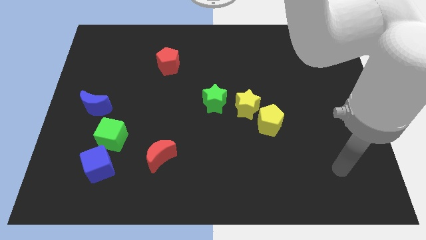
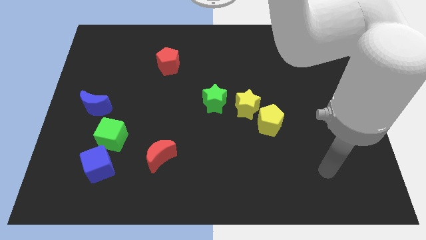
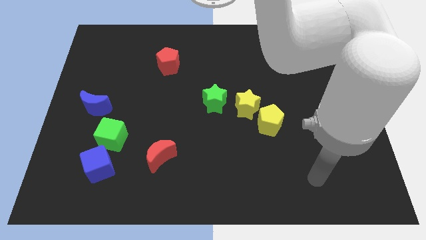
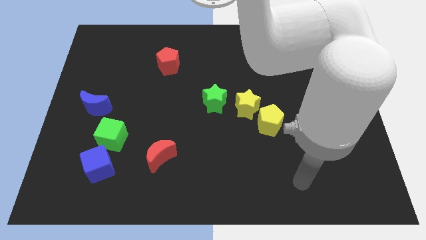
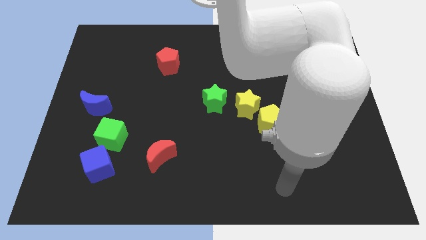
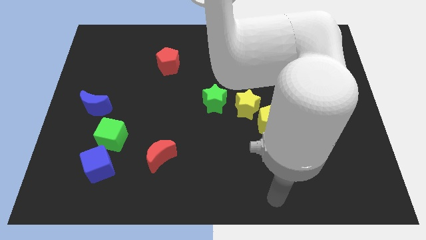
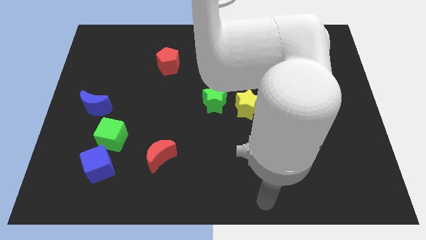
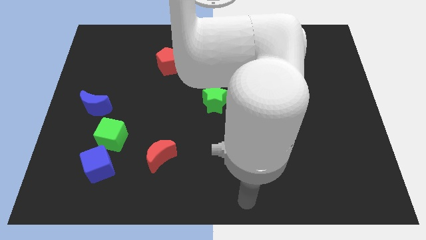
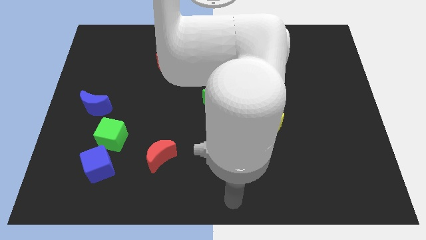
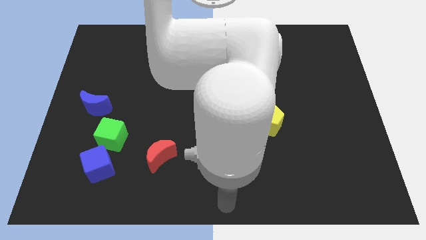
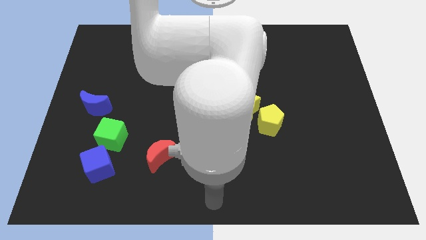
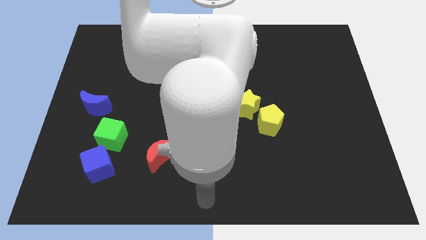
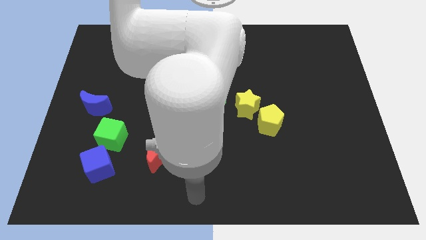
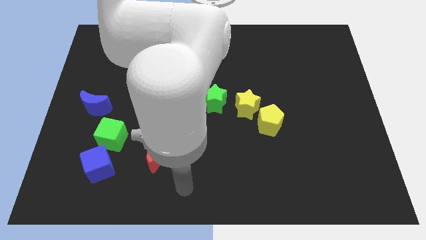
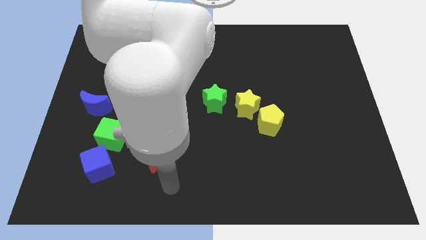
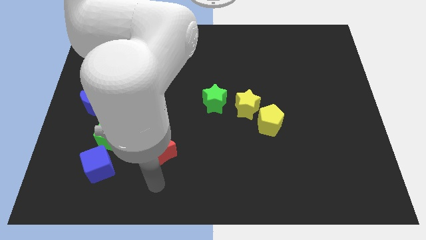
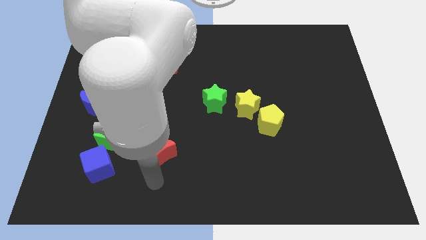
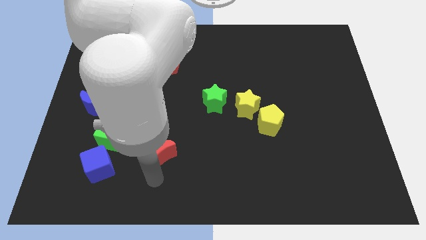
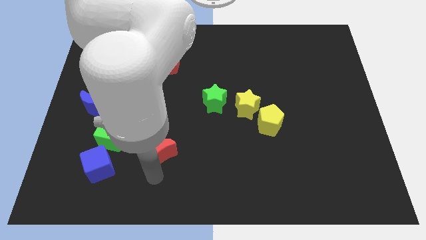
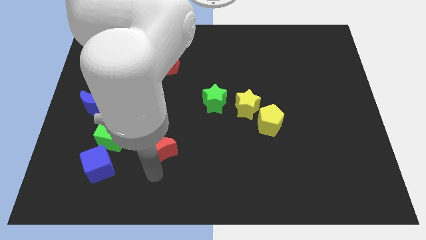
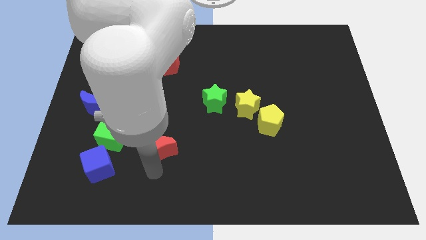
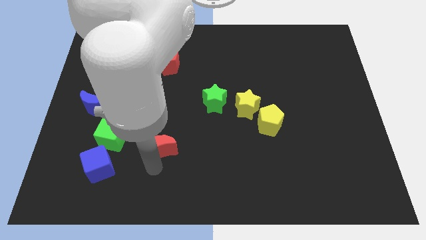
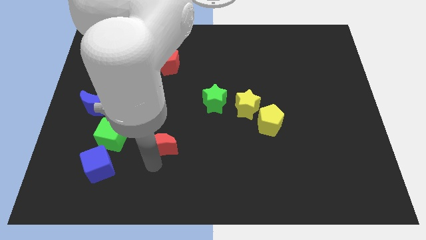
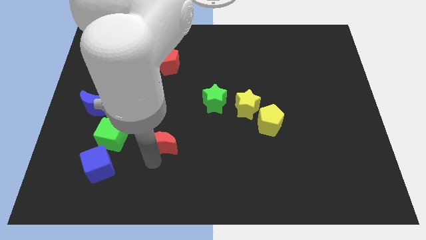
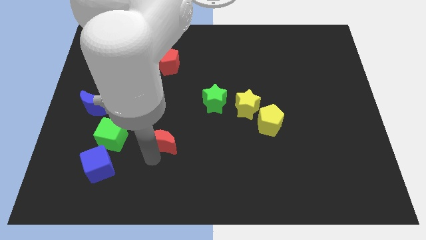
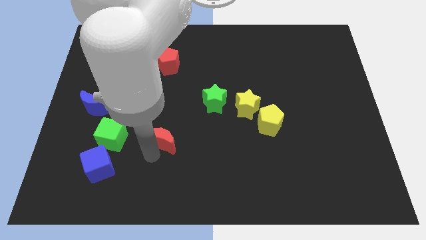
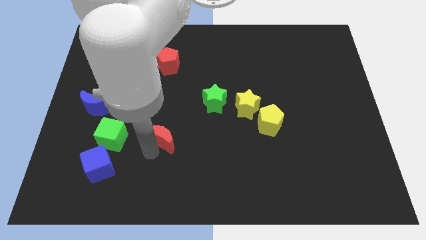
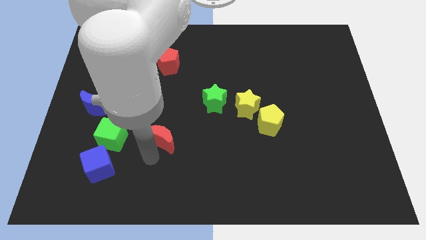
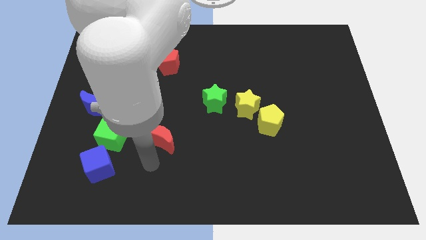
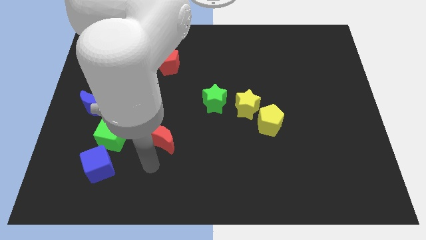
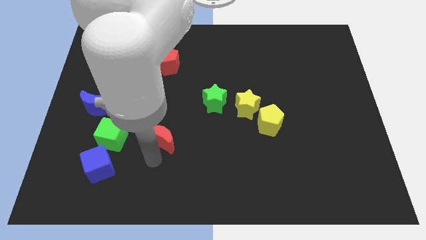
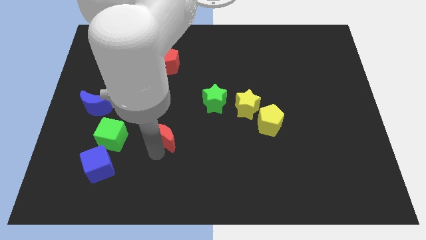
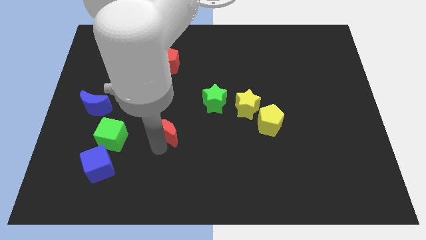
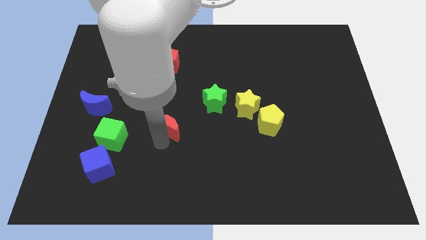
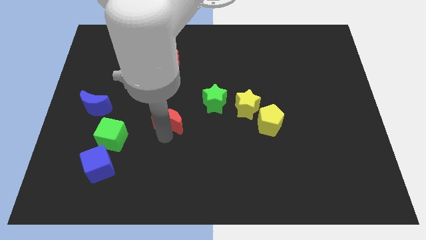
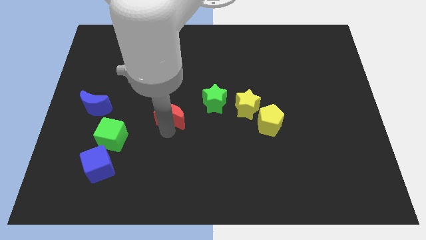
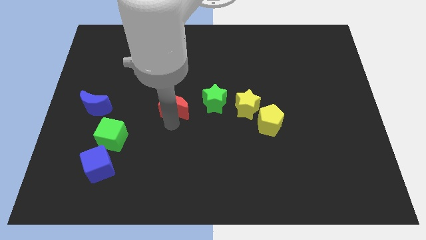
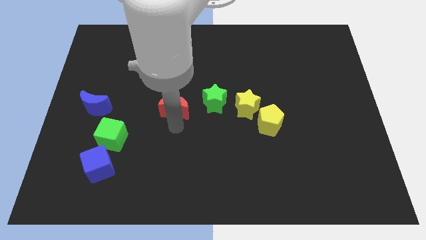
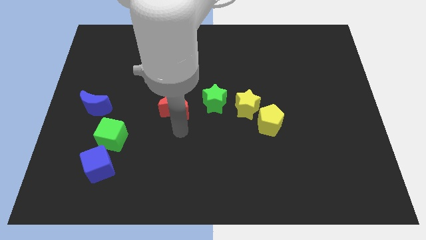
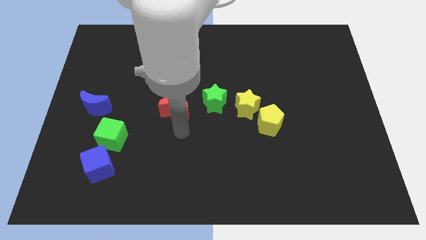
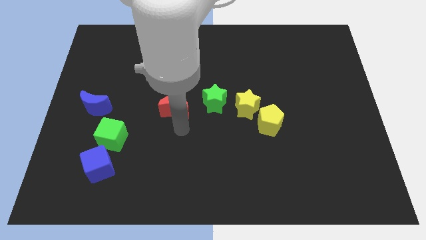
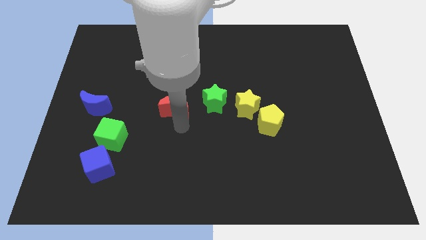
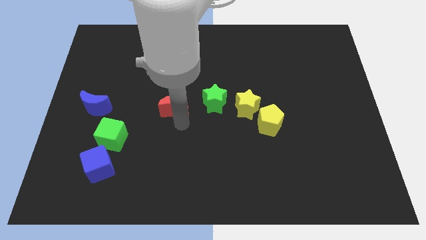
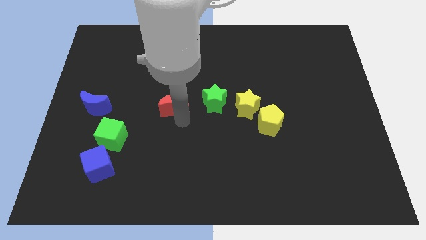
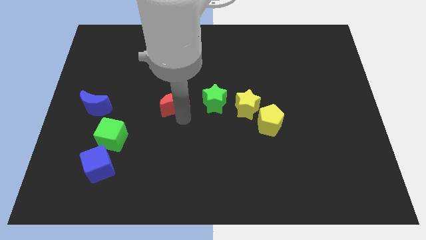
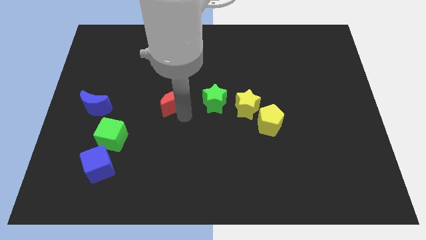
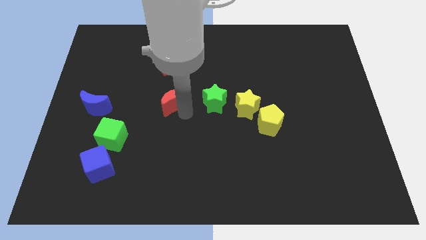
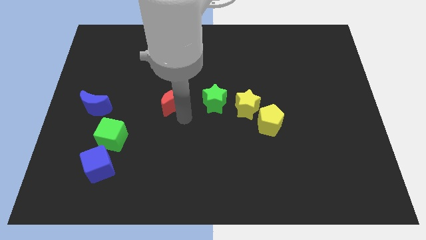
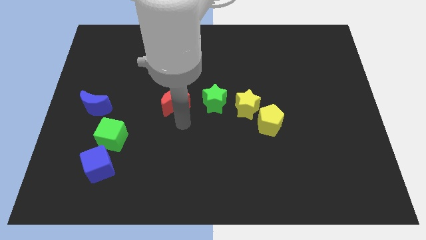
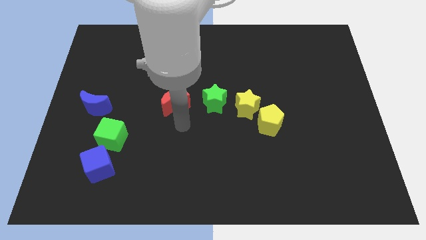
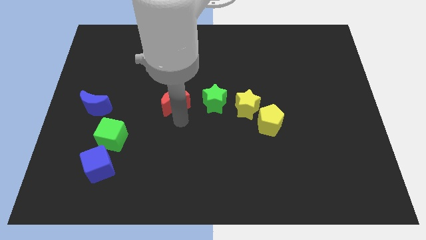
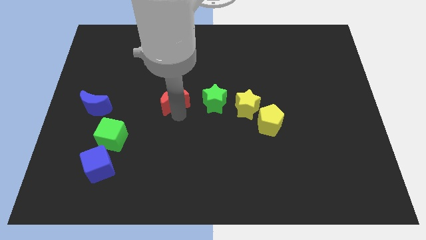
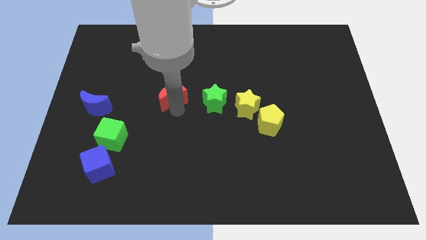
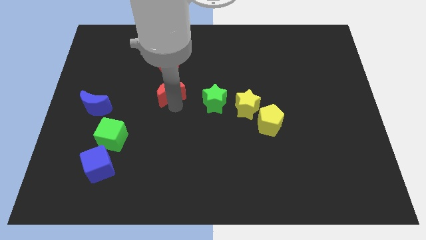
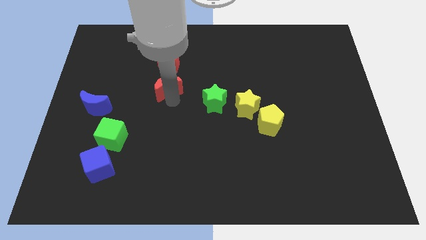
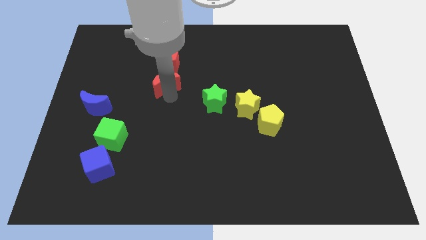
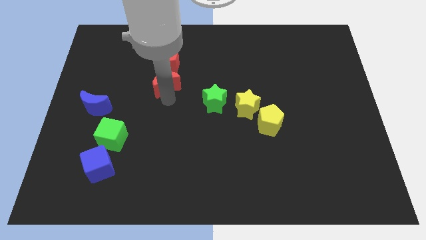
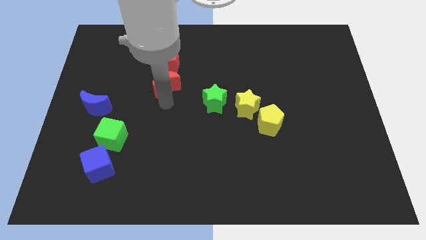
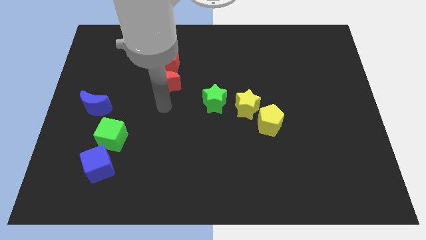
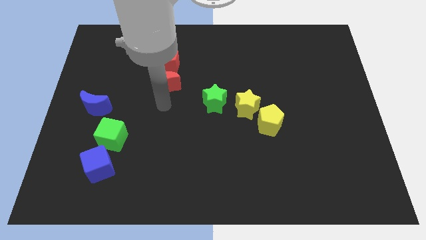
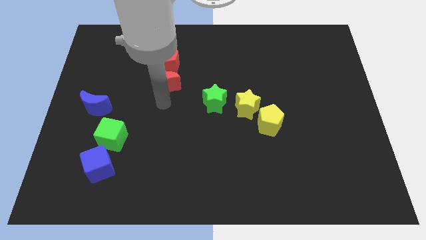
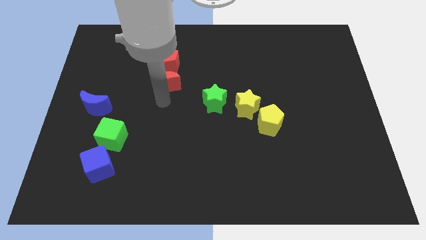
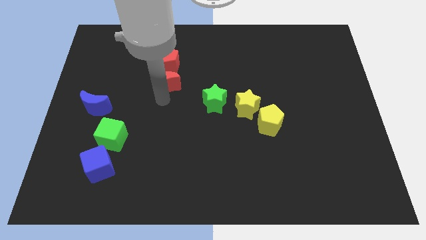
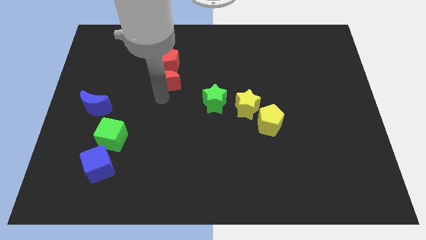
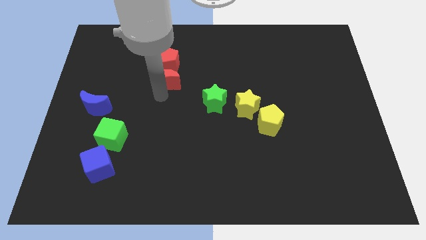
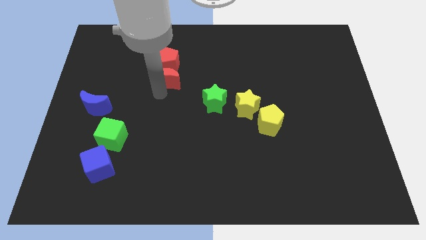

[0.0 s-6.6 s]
slide the red moon next to the red pentagon

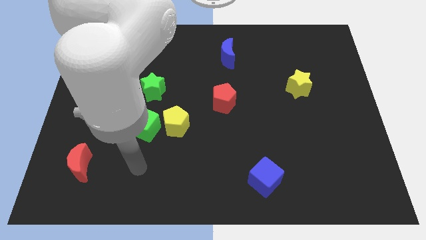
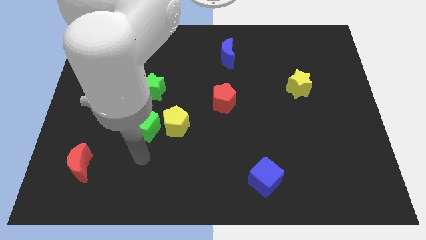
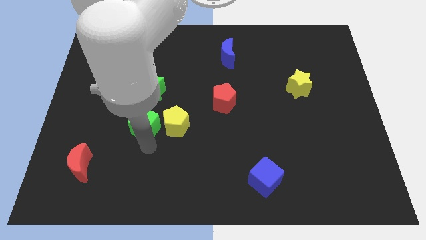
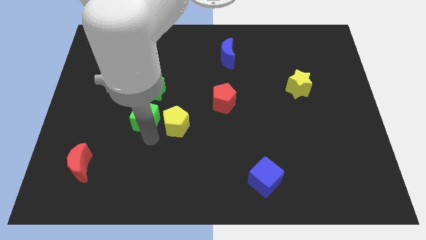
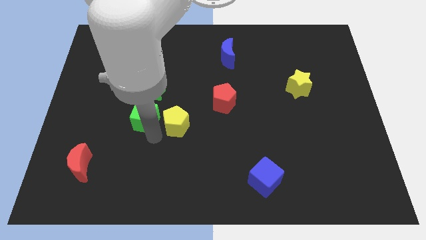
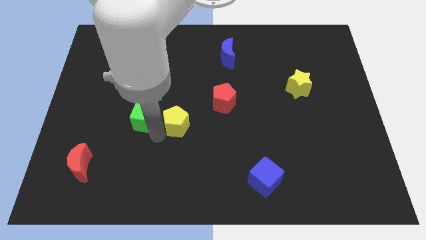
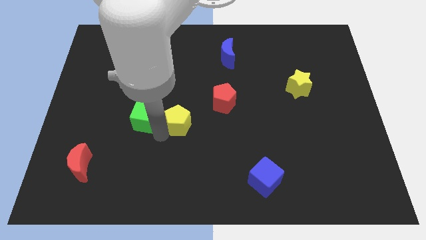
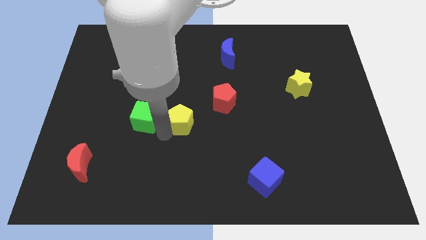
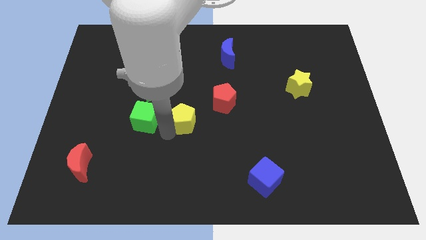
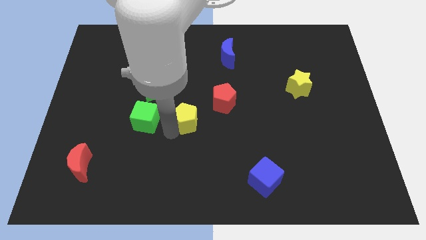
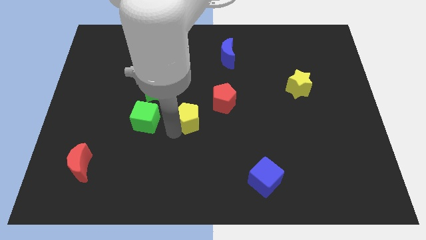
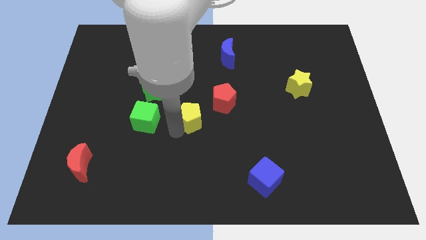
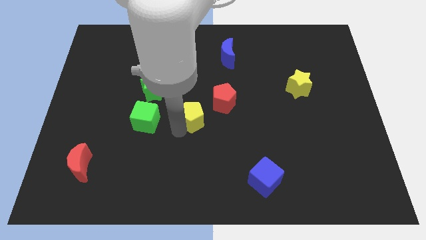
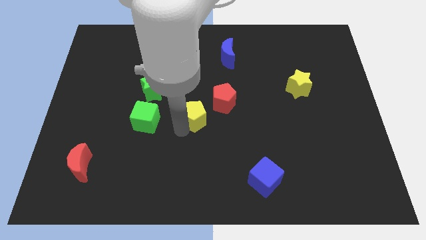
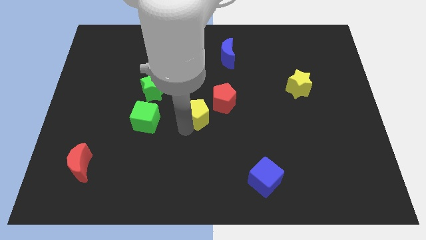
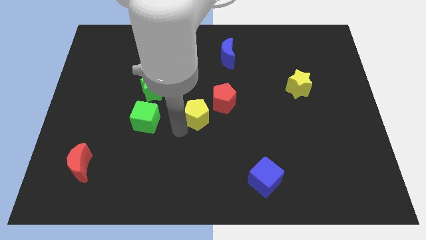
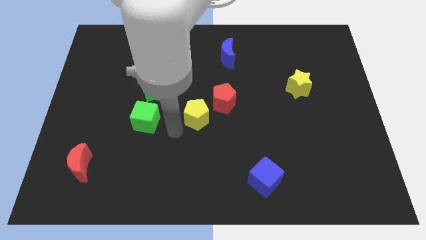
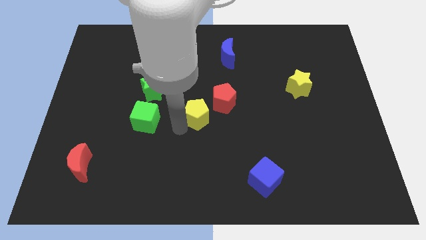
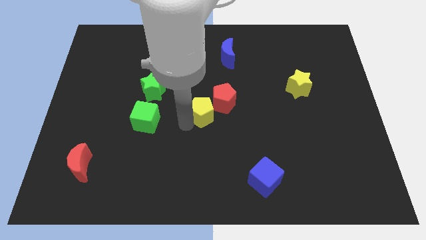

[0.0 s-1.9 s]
slide the yellow pentagon next to the red pentagon
